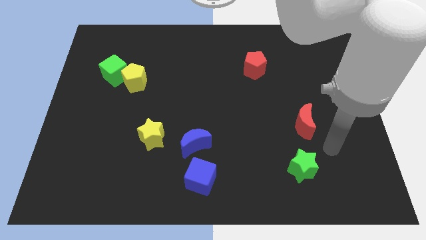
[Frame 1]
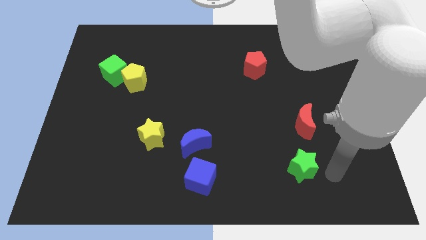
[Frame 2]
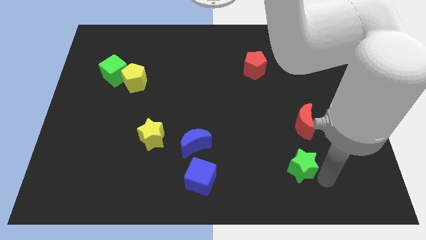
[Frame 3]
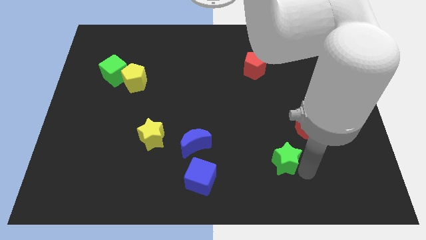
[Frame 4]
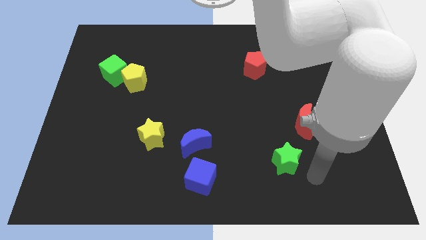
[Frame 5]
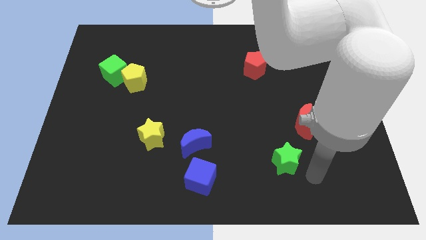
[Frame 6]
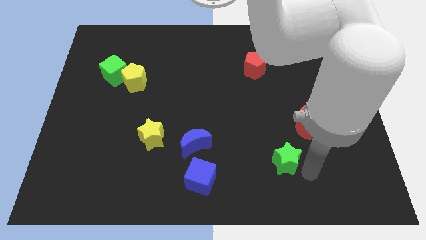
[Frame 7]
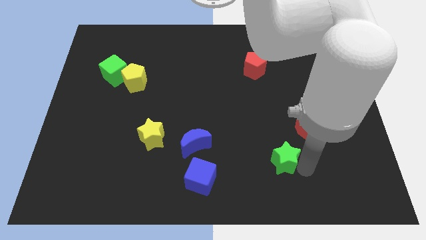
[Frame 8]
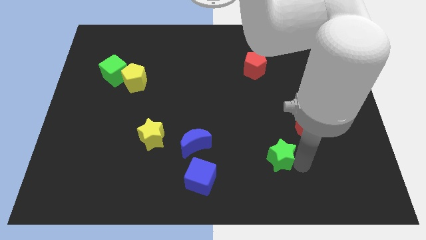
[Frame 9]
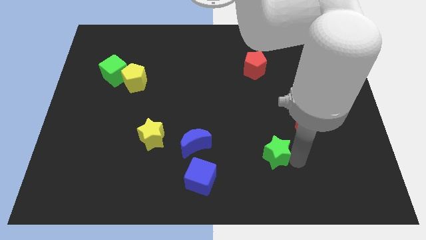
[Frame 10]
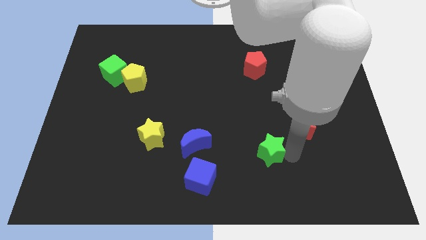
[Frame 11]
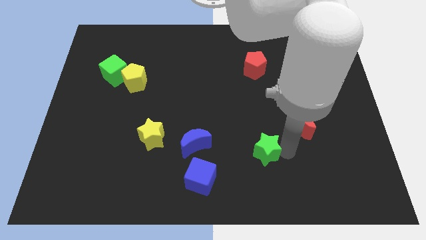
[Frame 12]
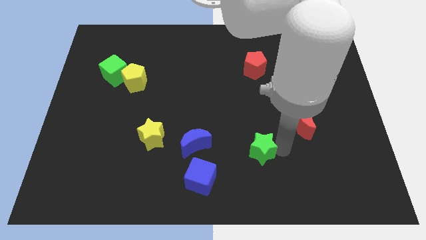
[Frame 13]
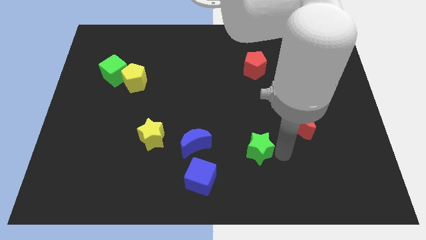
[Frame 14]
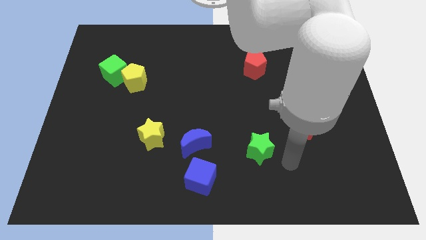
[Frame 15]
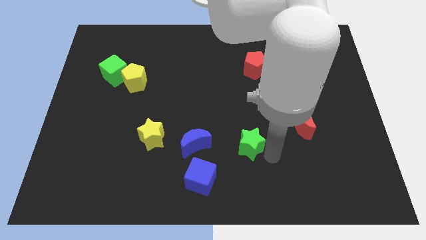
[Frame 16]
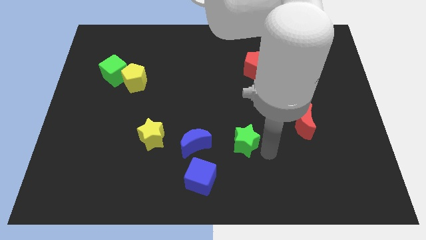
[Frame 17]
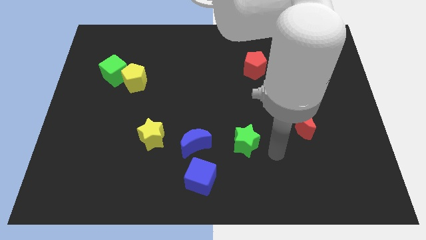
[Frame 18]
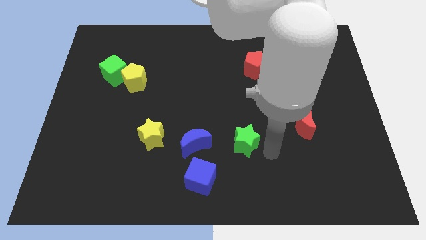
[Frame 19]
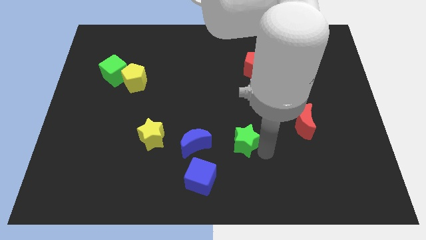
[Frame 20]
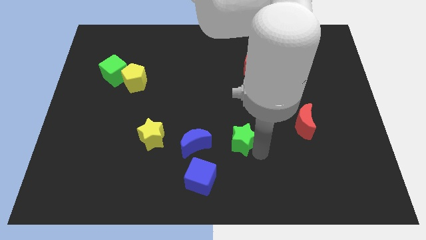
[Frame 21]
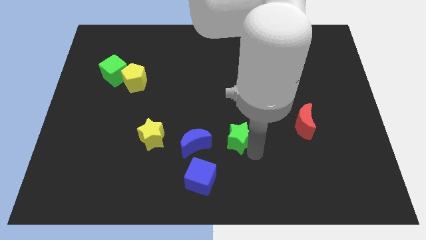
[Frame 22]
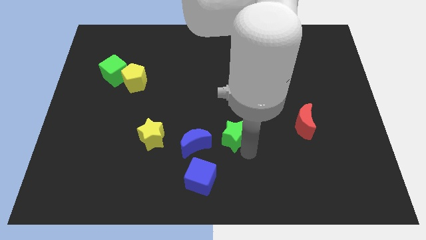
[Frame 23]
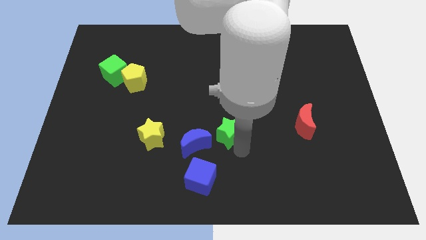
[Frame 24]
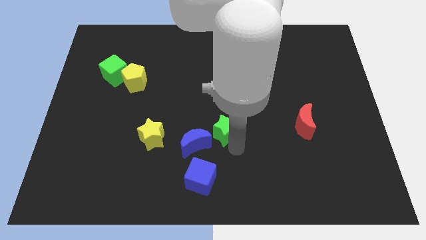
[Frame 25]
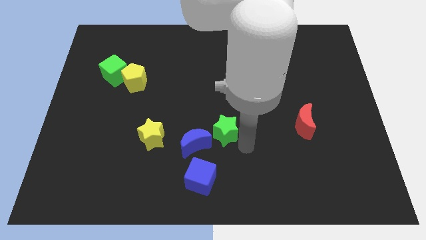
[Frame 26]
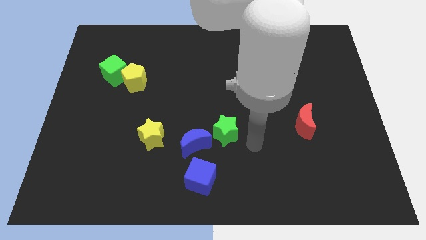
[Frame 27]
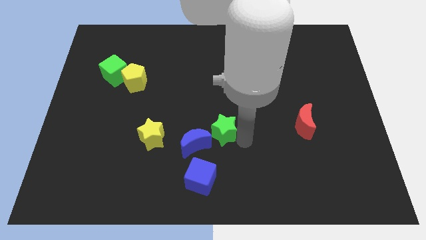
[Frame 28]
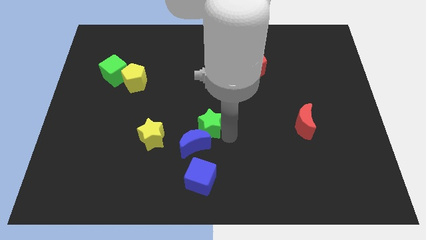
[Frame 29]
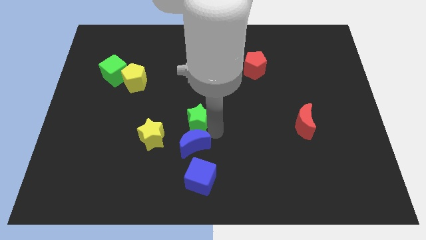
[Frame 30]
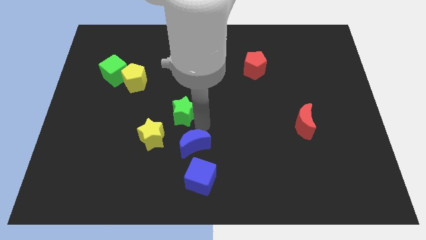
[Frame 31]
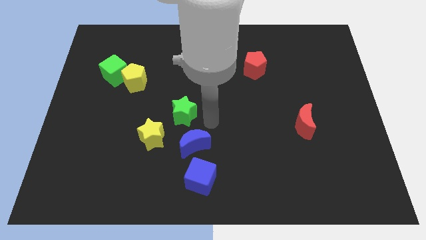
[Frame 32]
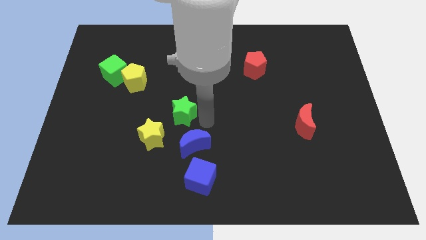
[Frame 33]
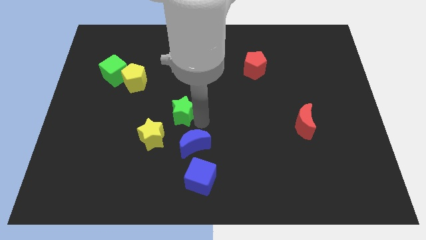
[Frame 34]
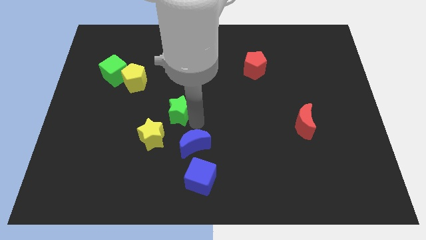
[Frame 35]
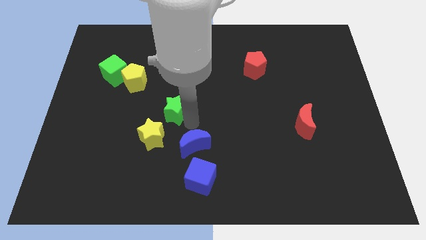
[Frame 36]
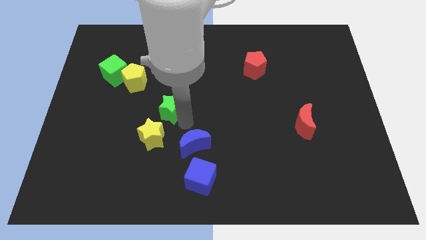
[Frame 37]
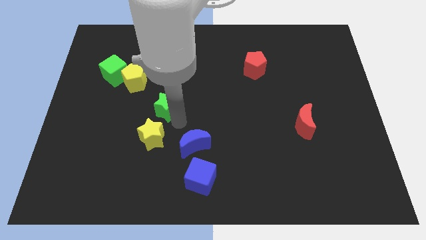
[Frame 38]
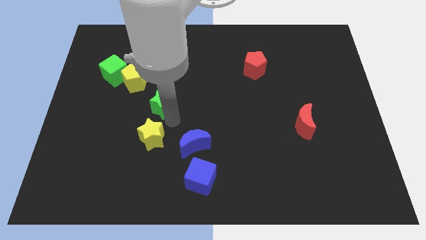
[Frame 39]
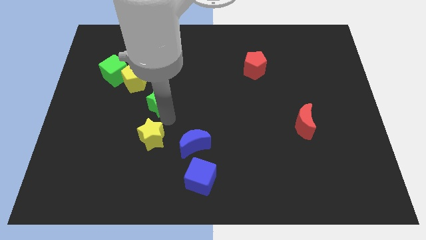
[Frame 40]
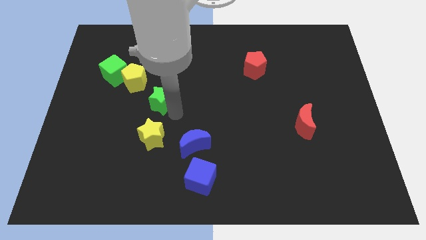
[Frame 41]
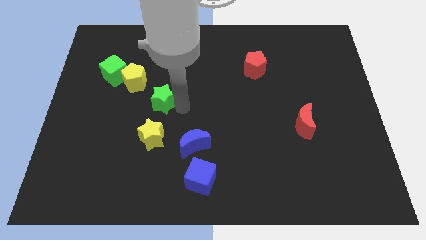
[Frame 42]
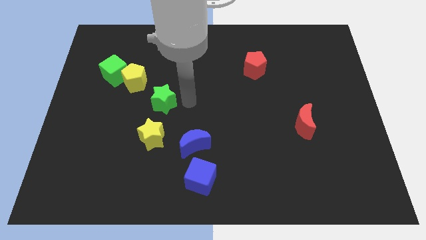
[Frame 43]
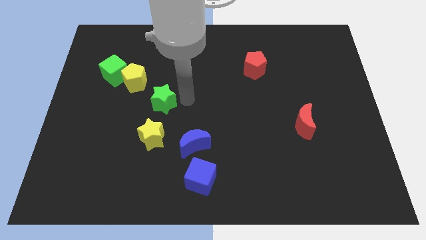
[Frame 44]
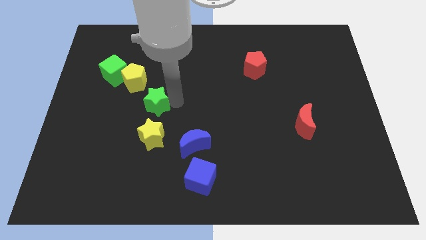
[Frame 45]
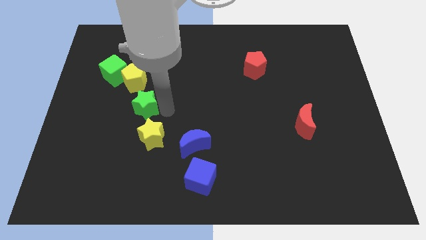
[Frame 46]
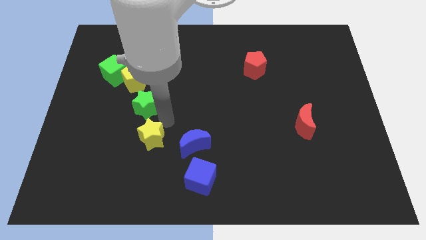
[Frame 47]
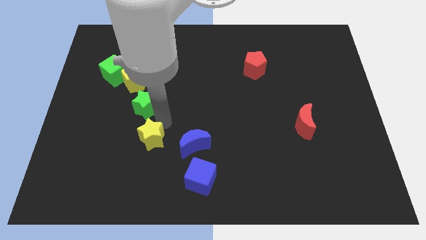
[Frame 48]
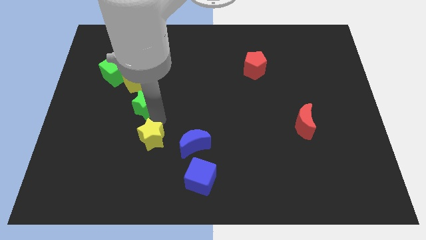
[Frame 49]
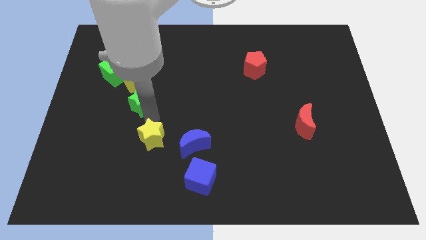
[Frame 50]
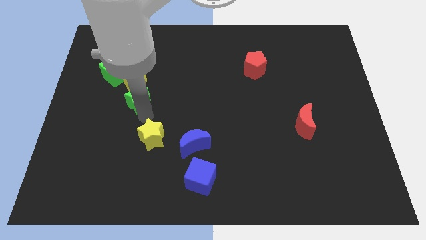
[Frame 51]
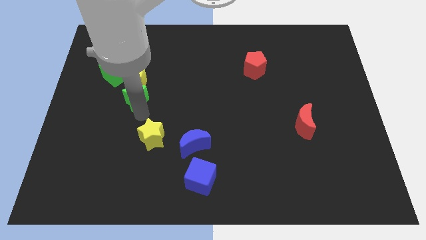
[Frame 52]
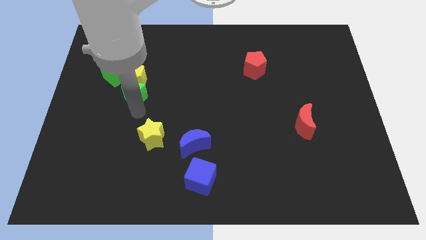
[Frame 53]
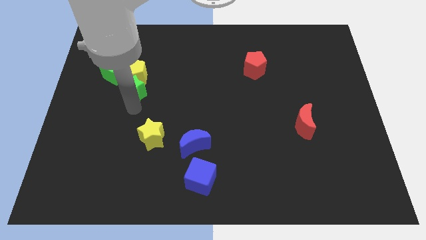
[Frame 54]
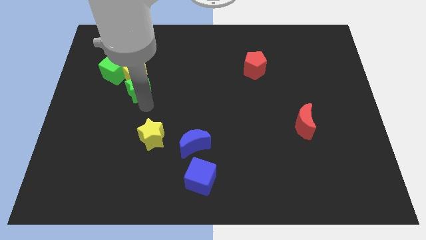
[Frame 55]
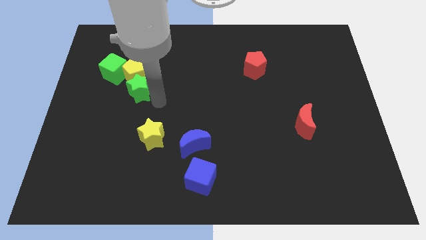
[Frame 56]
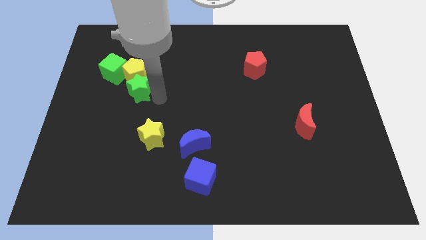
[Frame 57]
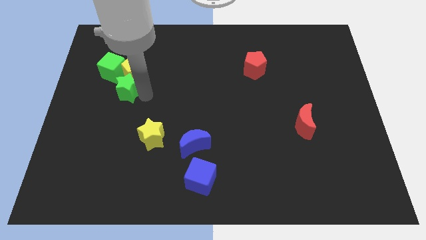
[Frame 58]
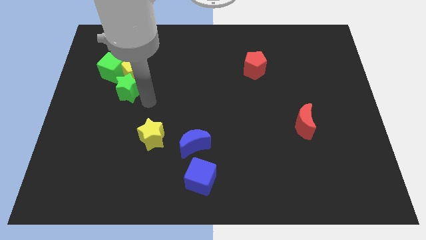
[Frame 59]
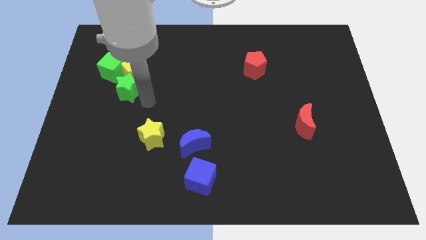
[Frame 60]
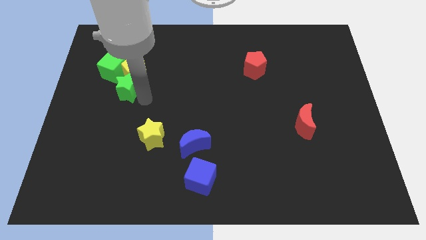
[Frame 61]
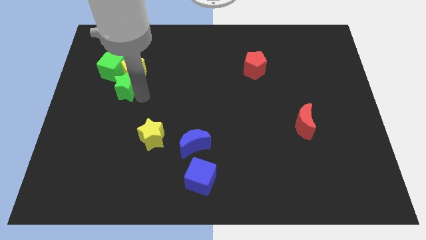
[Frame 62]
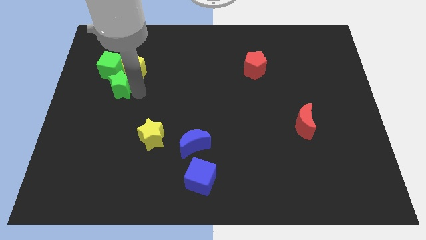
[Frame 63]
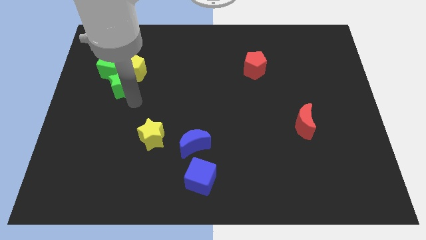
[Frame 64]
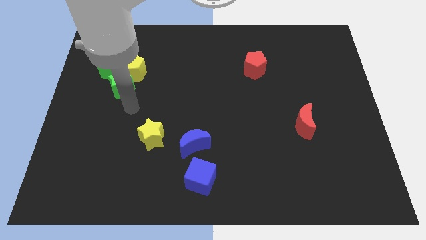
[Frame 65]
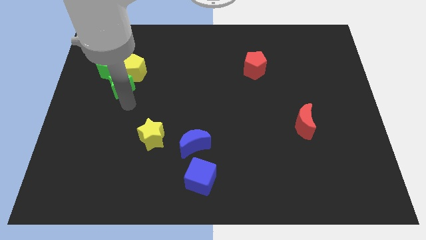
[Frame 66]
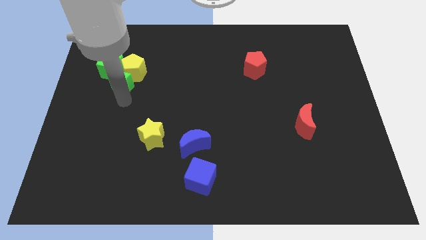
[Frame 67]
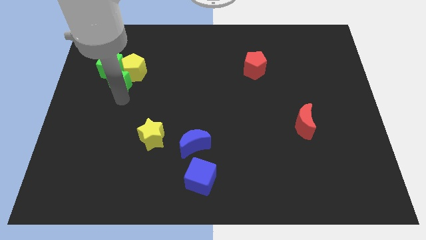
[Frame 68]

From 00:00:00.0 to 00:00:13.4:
move the green star close to the green cube
